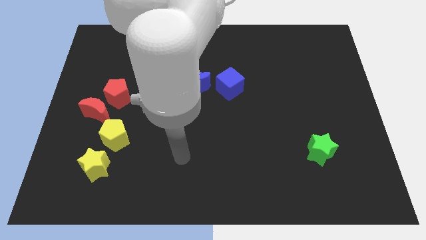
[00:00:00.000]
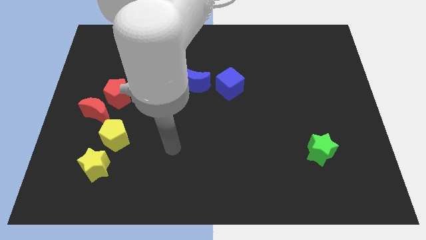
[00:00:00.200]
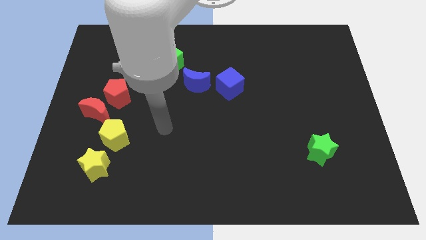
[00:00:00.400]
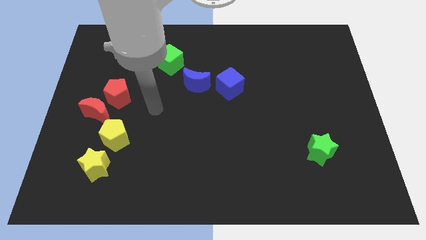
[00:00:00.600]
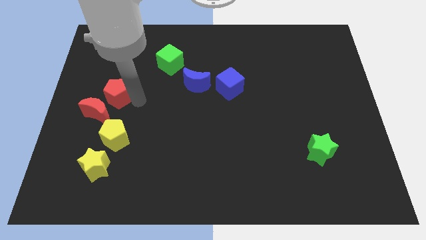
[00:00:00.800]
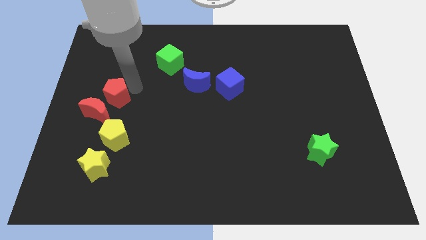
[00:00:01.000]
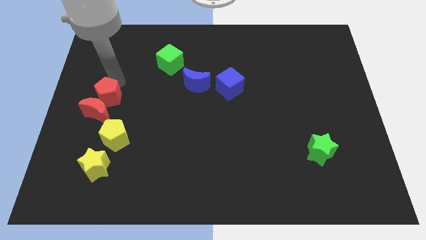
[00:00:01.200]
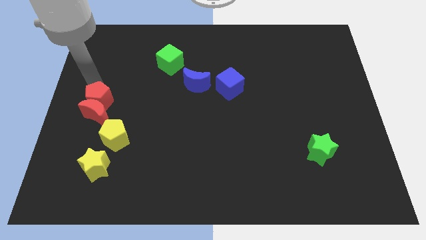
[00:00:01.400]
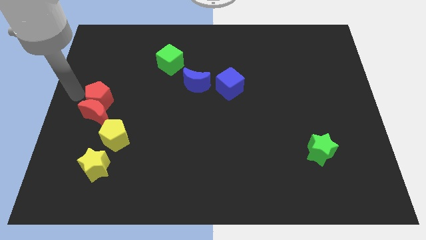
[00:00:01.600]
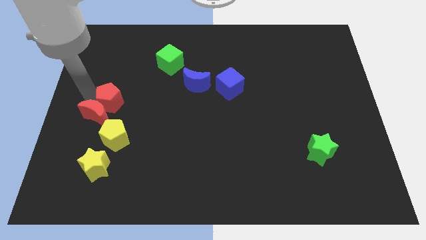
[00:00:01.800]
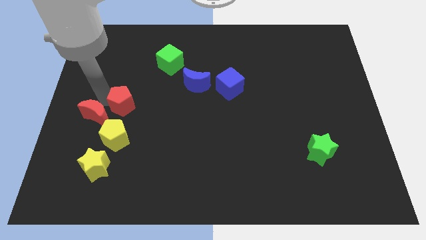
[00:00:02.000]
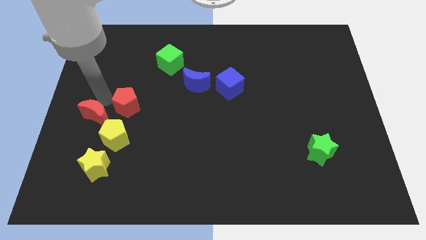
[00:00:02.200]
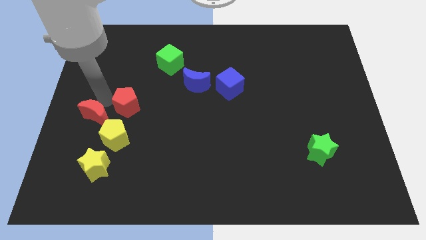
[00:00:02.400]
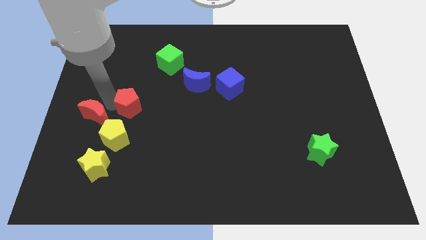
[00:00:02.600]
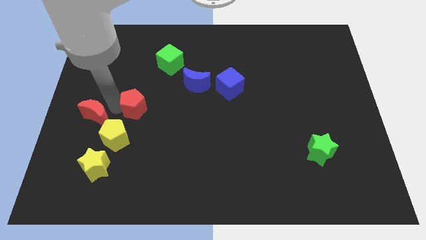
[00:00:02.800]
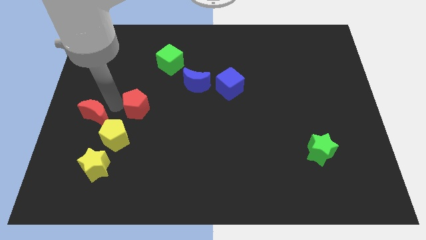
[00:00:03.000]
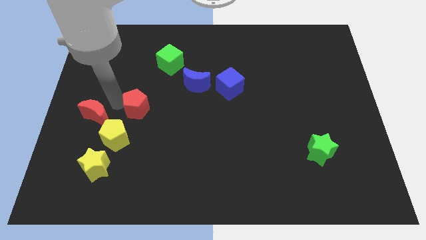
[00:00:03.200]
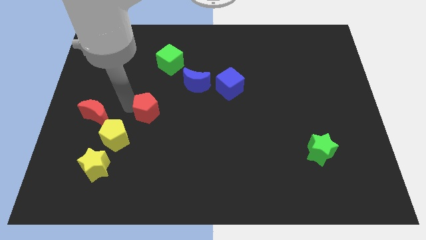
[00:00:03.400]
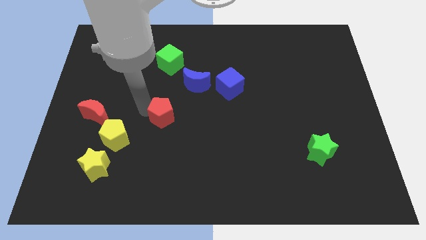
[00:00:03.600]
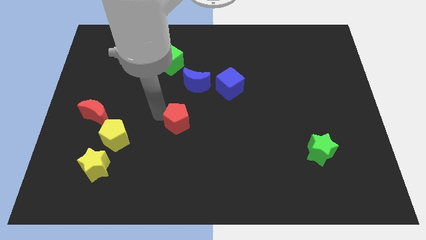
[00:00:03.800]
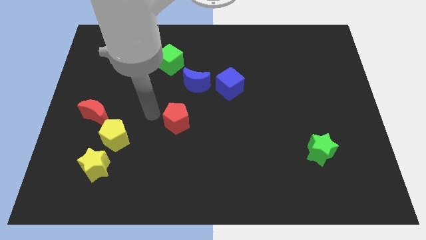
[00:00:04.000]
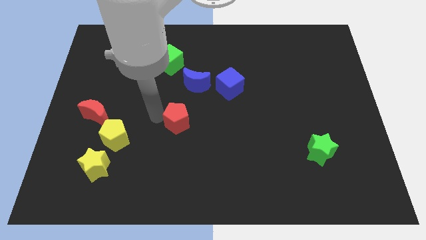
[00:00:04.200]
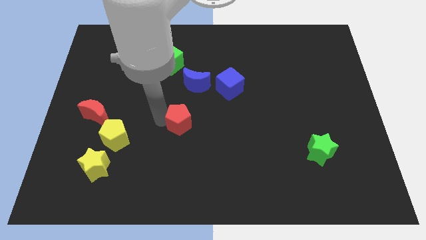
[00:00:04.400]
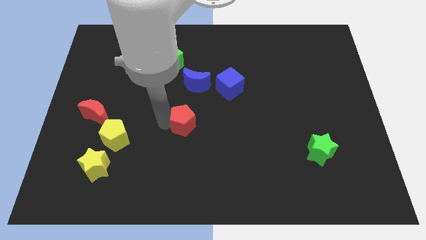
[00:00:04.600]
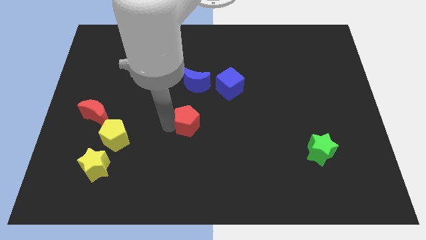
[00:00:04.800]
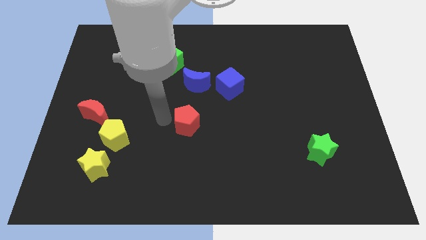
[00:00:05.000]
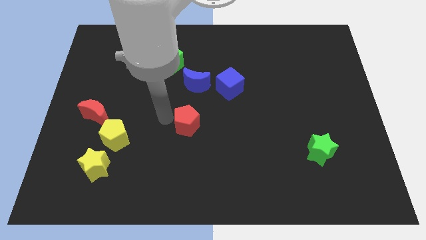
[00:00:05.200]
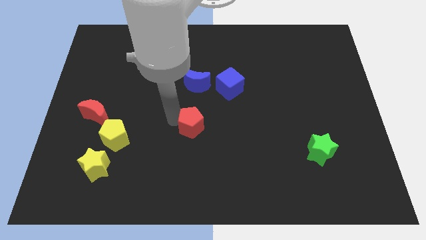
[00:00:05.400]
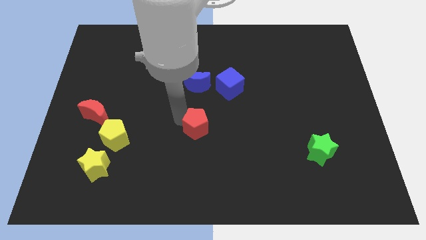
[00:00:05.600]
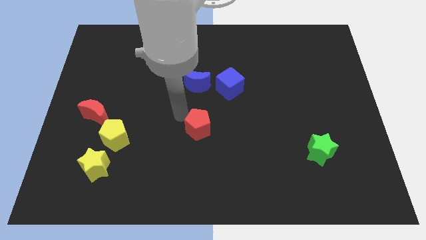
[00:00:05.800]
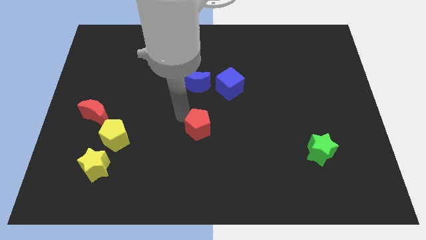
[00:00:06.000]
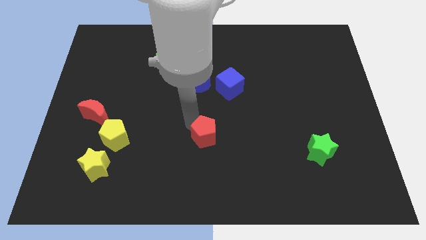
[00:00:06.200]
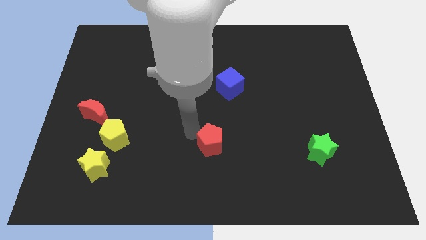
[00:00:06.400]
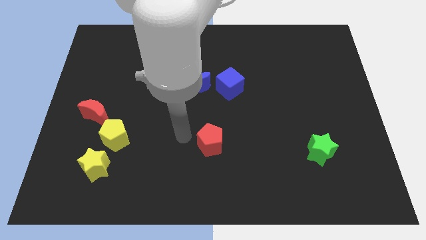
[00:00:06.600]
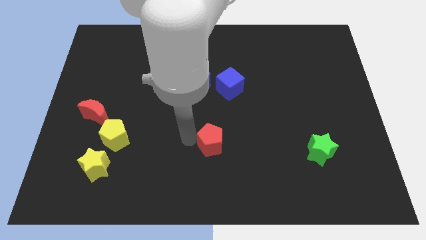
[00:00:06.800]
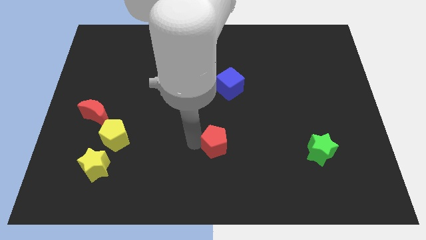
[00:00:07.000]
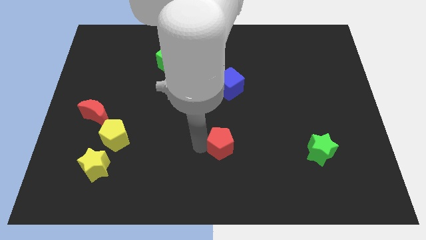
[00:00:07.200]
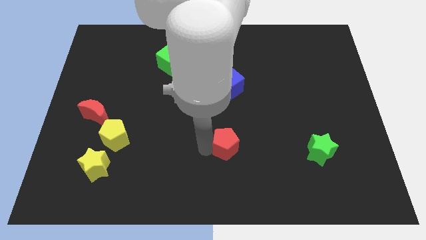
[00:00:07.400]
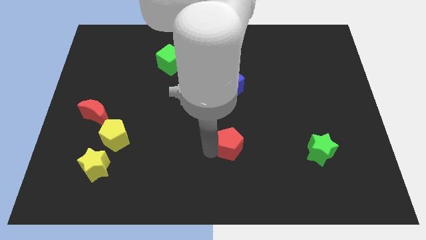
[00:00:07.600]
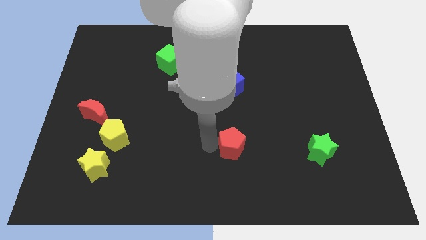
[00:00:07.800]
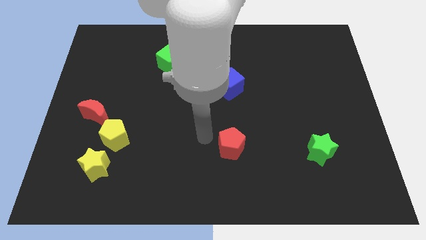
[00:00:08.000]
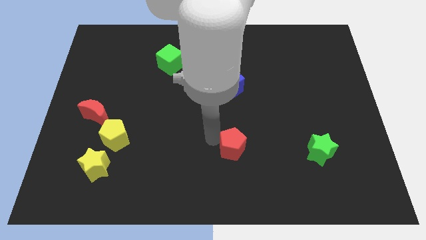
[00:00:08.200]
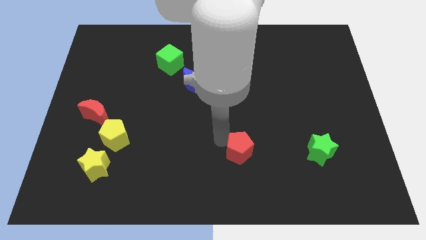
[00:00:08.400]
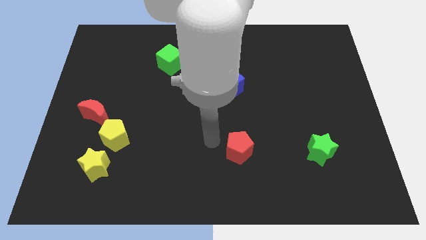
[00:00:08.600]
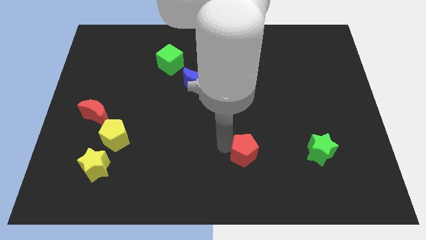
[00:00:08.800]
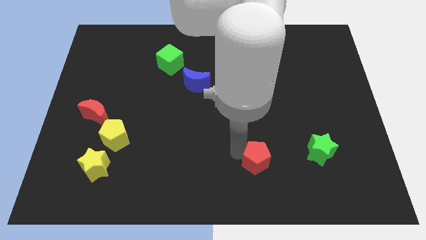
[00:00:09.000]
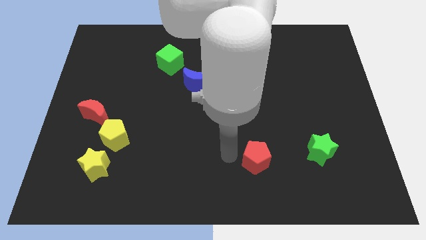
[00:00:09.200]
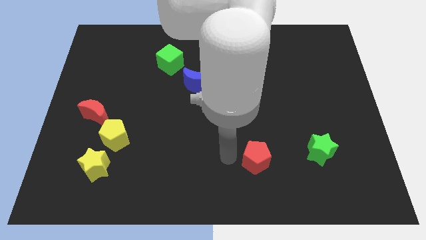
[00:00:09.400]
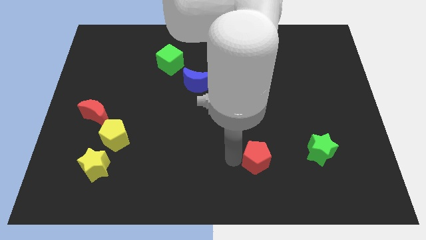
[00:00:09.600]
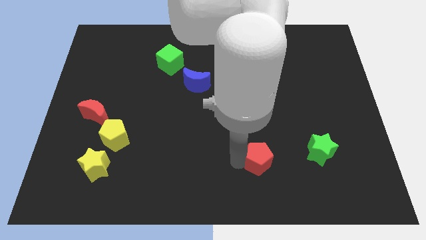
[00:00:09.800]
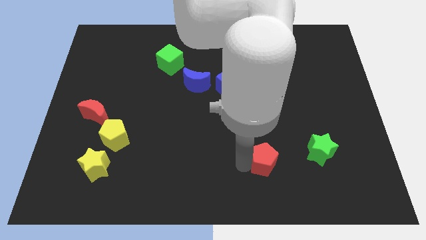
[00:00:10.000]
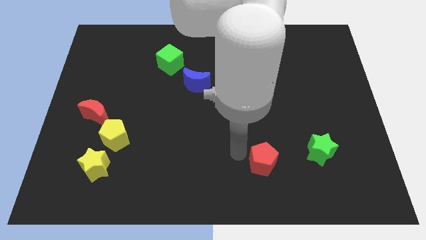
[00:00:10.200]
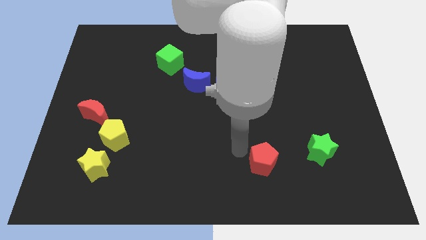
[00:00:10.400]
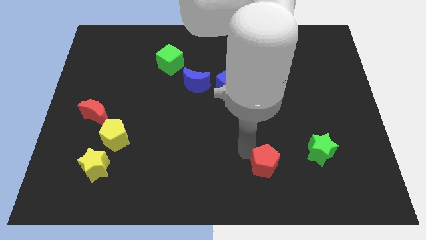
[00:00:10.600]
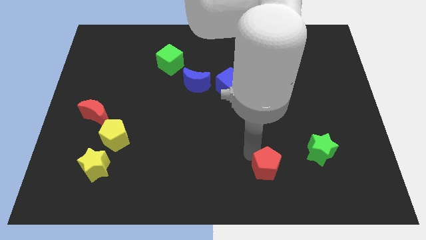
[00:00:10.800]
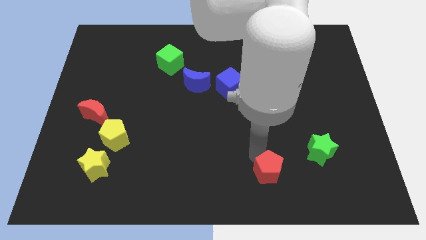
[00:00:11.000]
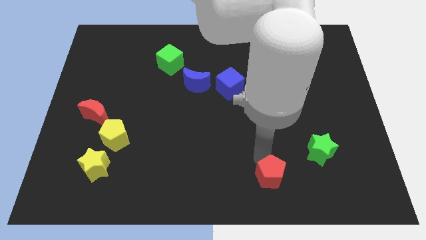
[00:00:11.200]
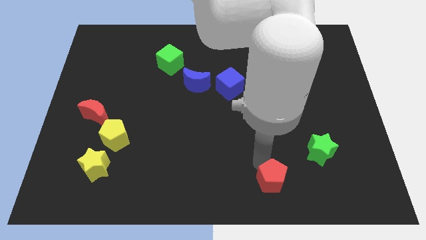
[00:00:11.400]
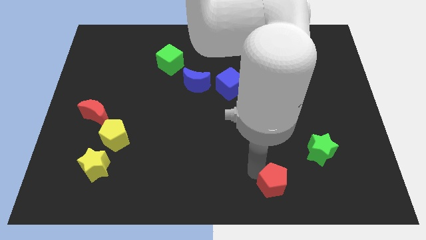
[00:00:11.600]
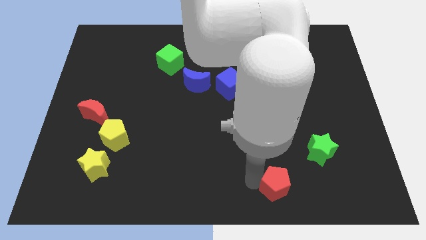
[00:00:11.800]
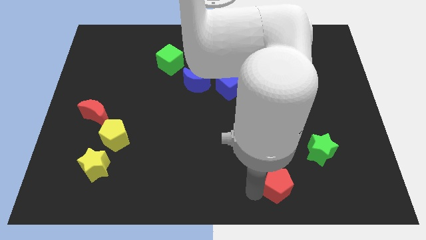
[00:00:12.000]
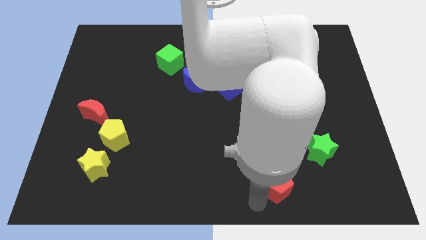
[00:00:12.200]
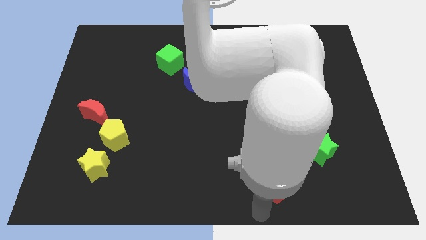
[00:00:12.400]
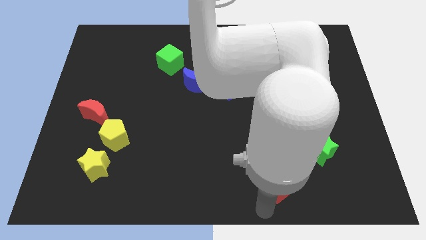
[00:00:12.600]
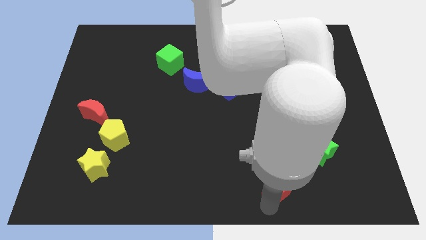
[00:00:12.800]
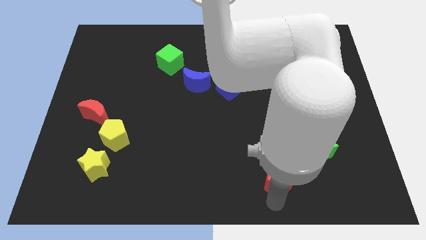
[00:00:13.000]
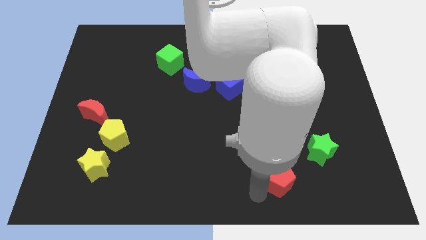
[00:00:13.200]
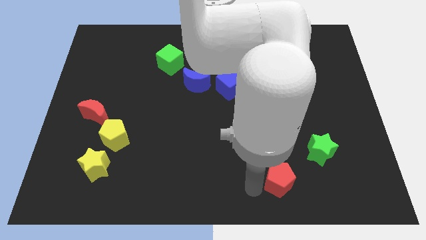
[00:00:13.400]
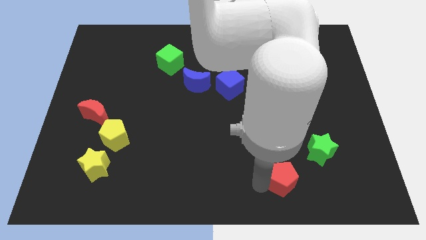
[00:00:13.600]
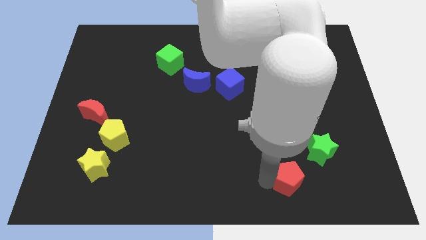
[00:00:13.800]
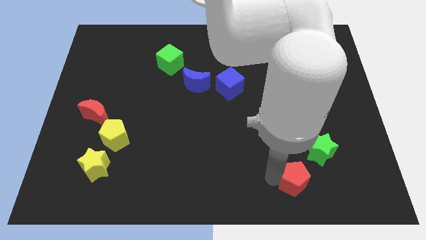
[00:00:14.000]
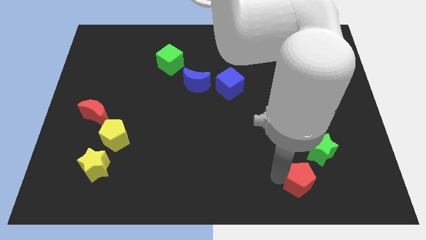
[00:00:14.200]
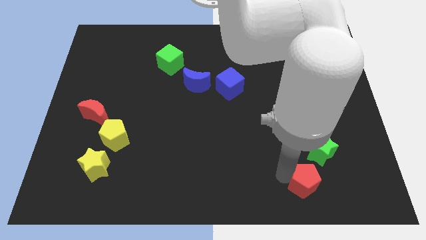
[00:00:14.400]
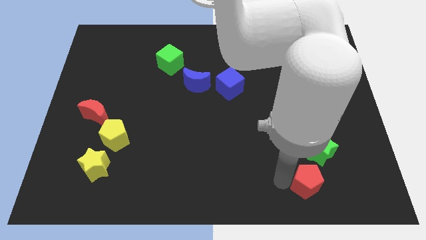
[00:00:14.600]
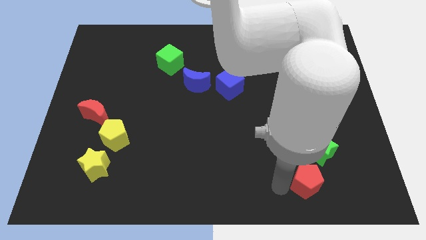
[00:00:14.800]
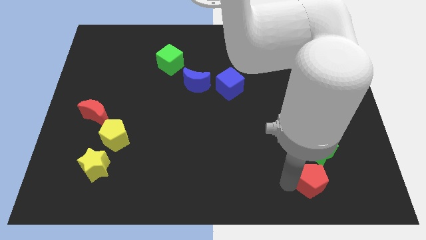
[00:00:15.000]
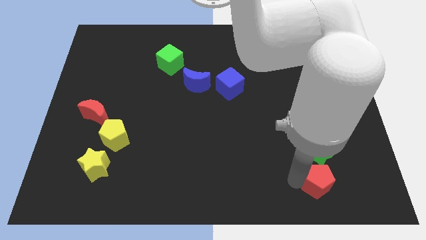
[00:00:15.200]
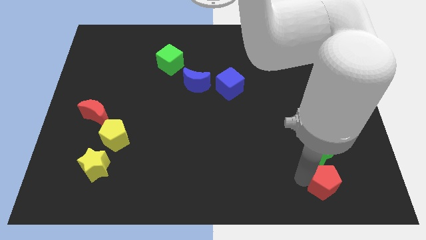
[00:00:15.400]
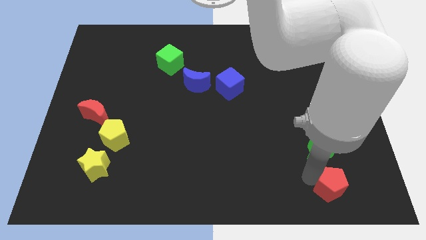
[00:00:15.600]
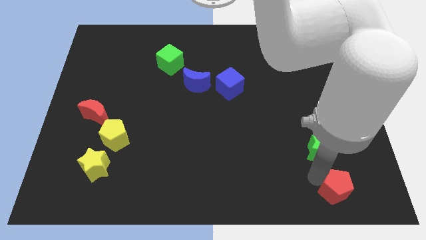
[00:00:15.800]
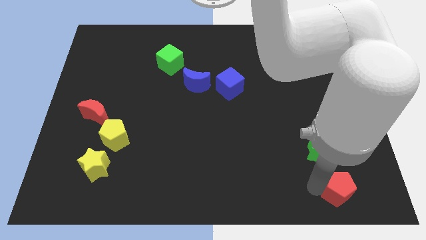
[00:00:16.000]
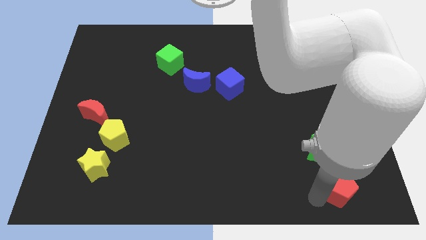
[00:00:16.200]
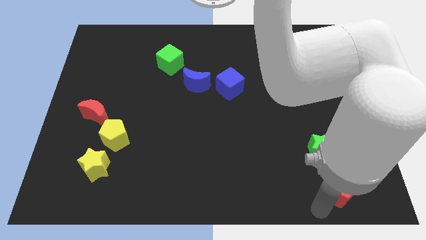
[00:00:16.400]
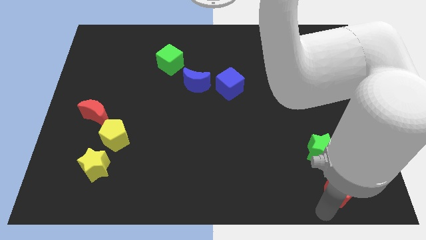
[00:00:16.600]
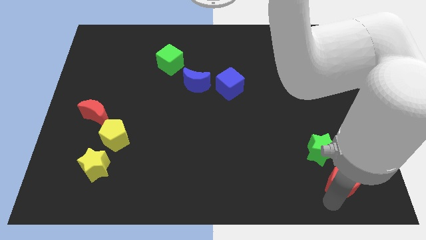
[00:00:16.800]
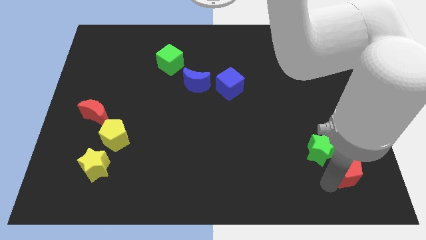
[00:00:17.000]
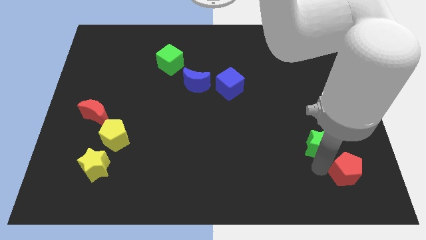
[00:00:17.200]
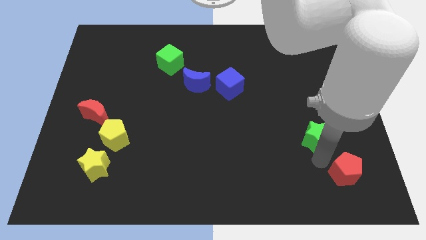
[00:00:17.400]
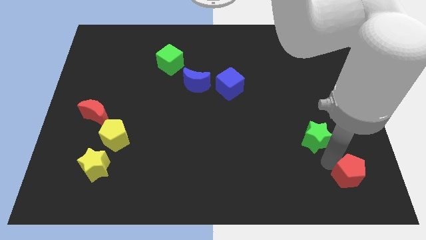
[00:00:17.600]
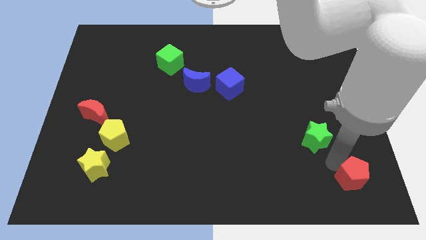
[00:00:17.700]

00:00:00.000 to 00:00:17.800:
move the red pentagon to the bottom right
